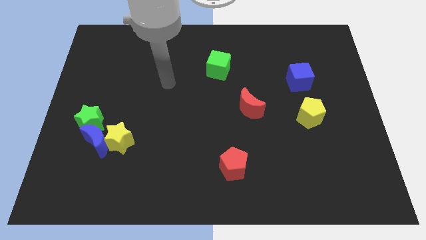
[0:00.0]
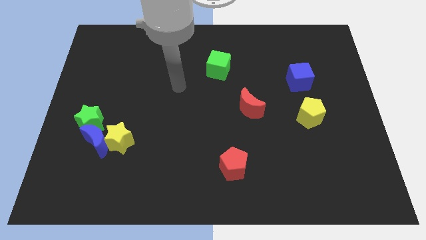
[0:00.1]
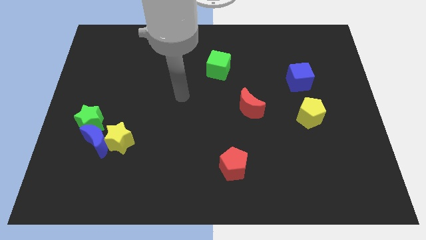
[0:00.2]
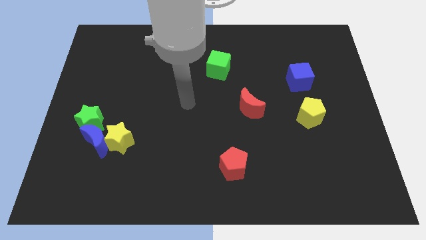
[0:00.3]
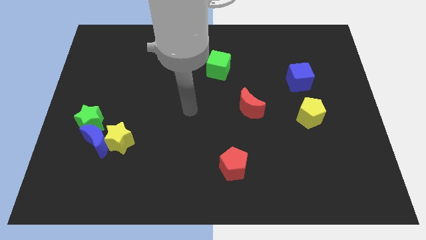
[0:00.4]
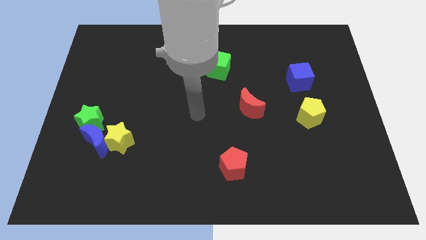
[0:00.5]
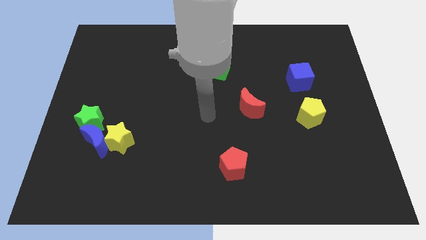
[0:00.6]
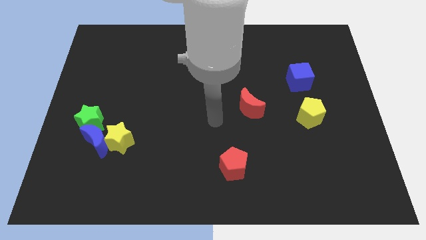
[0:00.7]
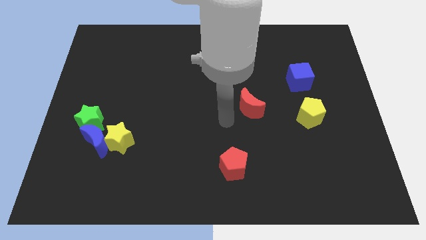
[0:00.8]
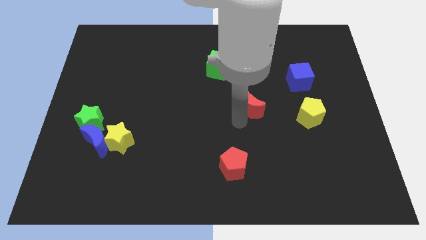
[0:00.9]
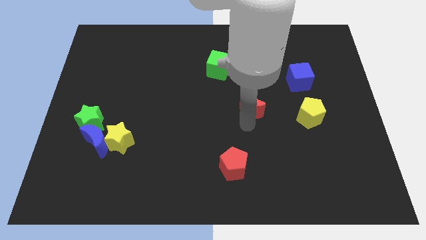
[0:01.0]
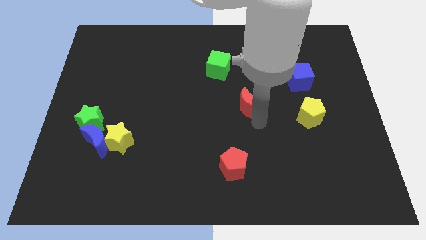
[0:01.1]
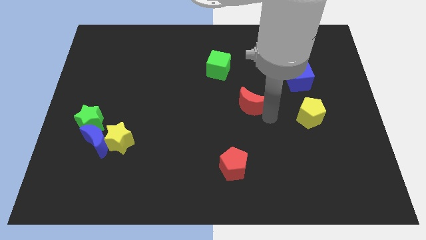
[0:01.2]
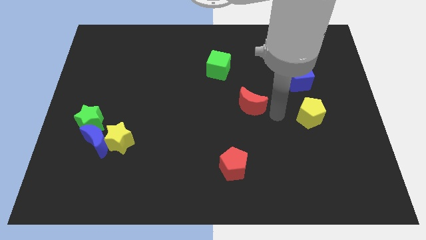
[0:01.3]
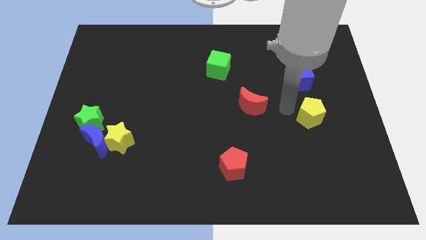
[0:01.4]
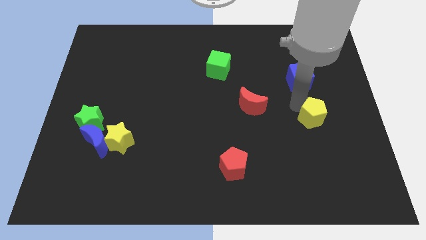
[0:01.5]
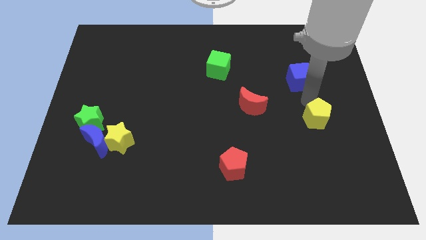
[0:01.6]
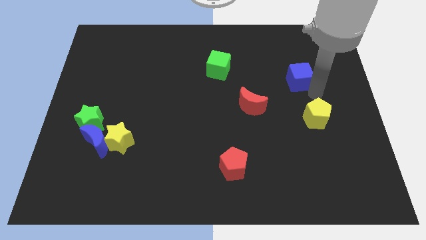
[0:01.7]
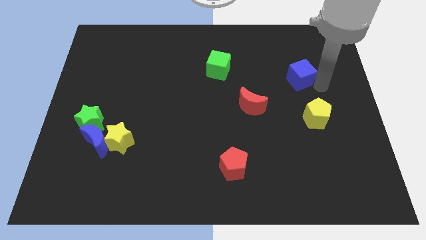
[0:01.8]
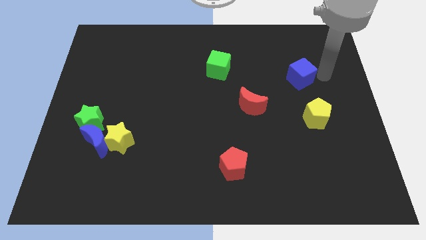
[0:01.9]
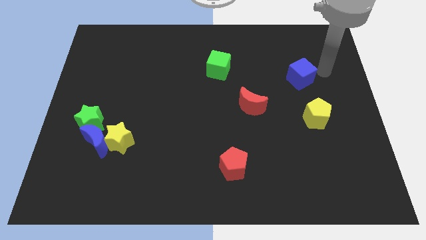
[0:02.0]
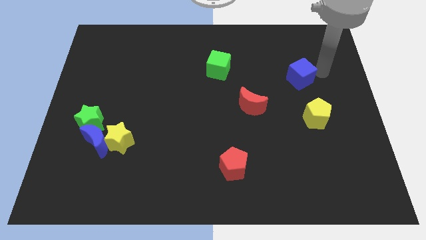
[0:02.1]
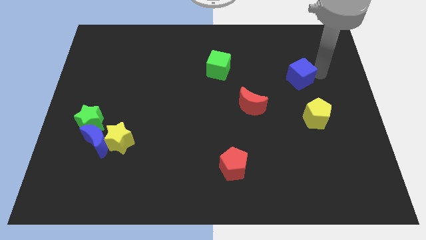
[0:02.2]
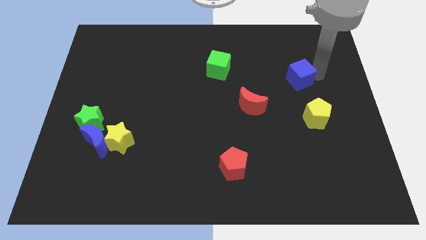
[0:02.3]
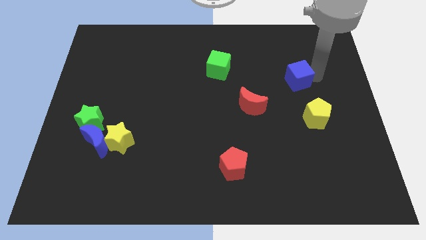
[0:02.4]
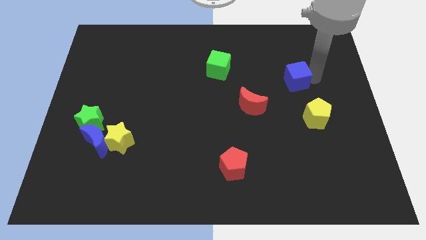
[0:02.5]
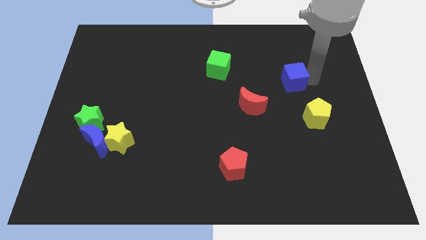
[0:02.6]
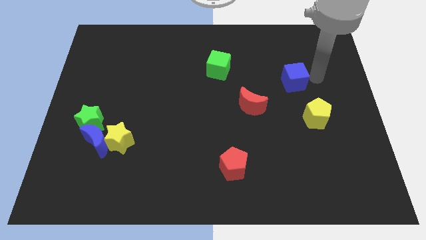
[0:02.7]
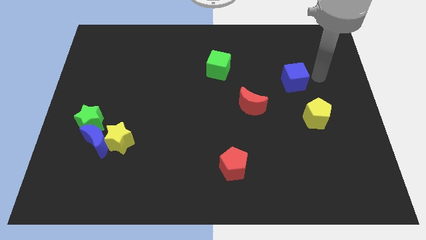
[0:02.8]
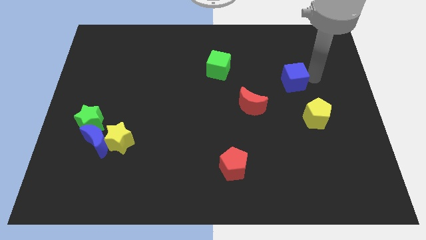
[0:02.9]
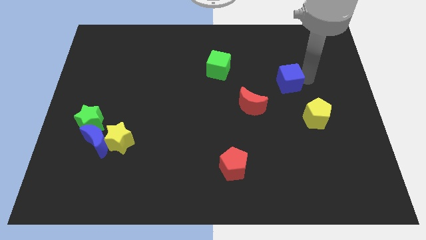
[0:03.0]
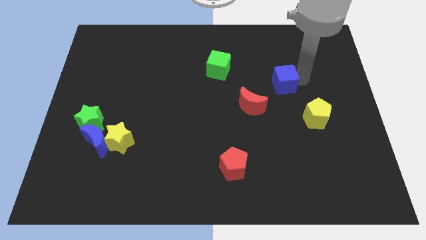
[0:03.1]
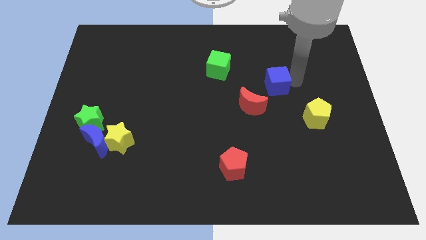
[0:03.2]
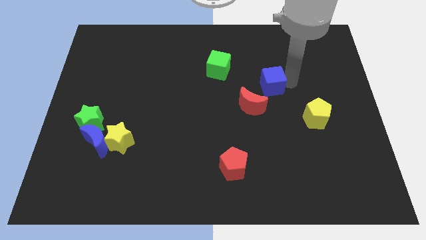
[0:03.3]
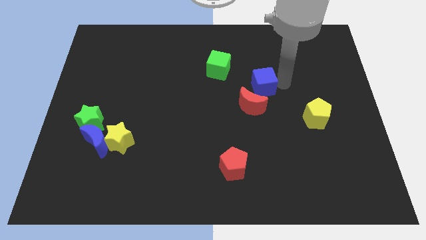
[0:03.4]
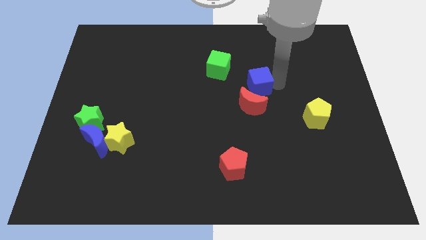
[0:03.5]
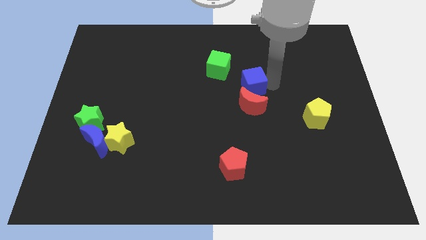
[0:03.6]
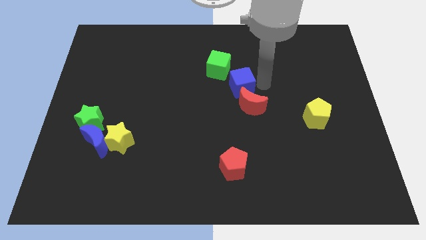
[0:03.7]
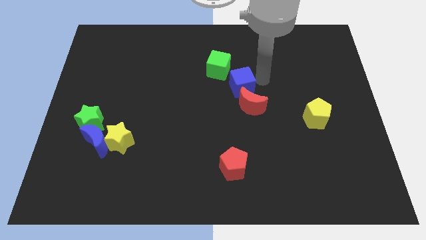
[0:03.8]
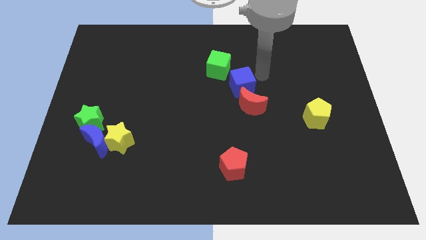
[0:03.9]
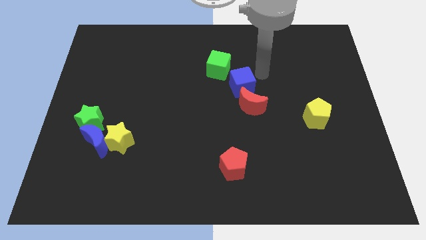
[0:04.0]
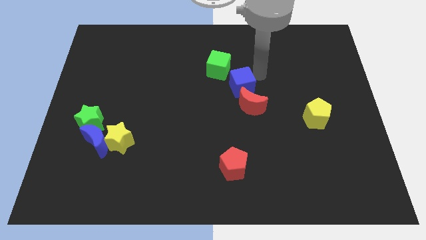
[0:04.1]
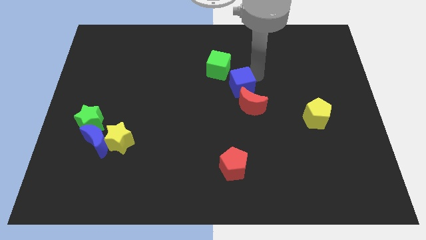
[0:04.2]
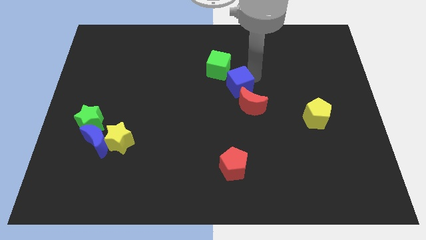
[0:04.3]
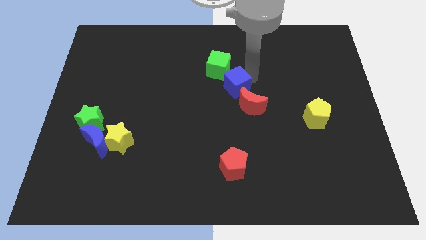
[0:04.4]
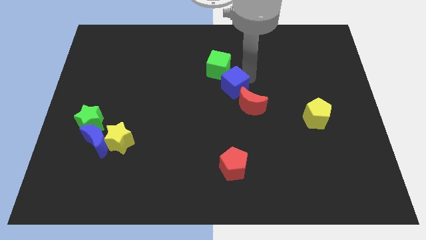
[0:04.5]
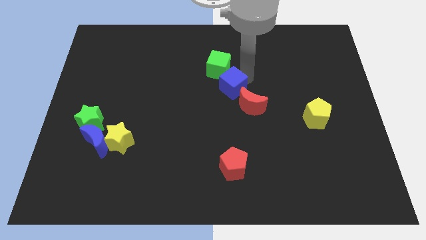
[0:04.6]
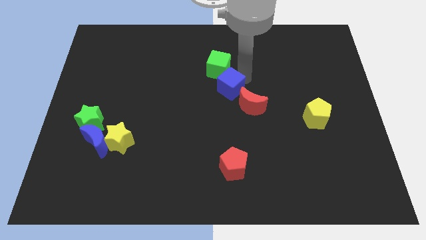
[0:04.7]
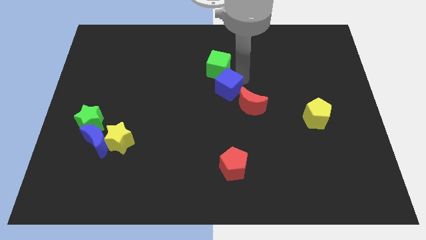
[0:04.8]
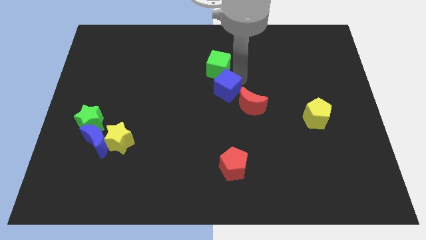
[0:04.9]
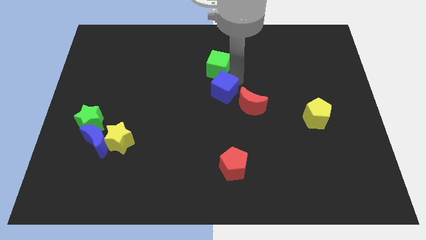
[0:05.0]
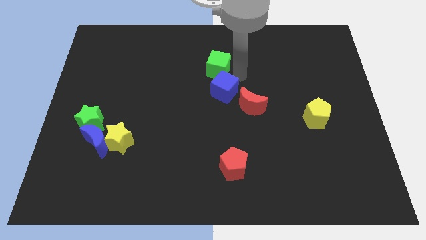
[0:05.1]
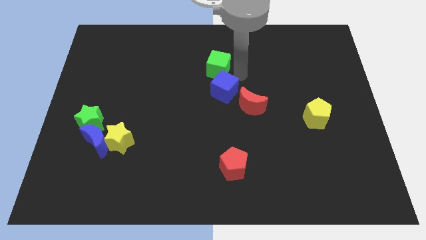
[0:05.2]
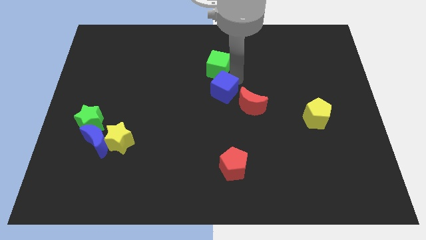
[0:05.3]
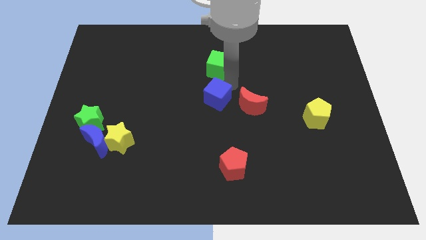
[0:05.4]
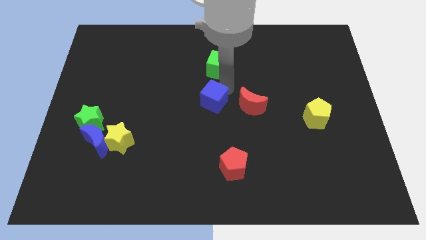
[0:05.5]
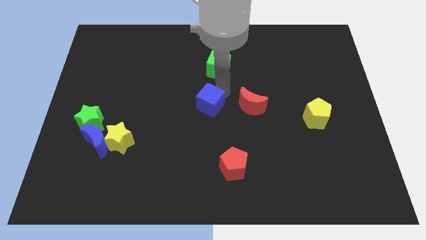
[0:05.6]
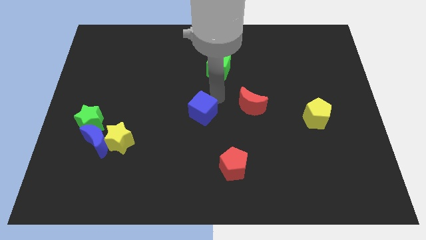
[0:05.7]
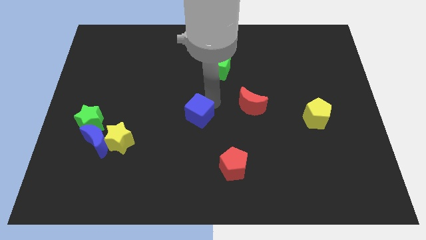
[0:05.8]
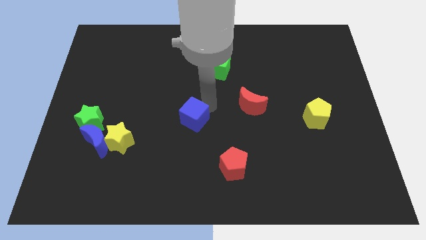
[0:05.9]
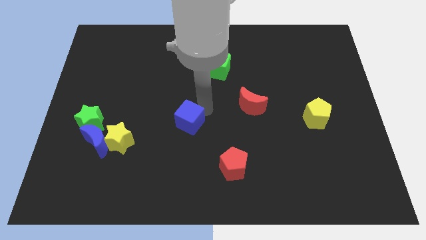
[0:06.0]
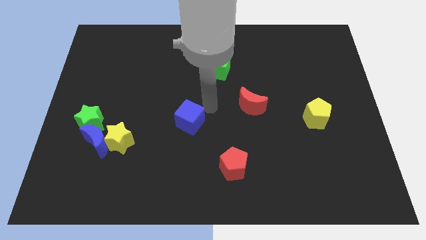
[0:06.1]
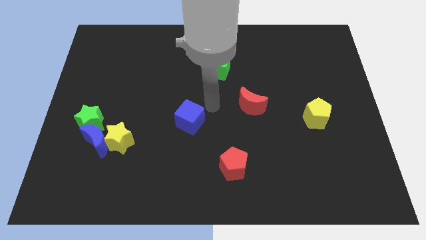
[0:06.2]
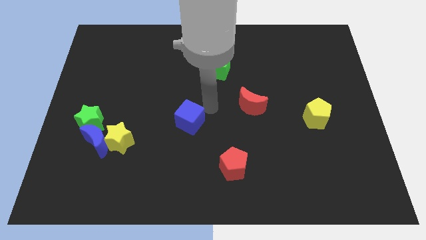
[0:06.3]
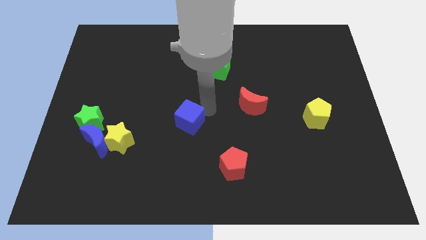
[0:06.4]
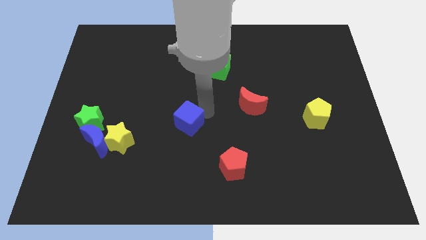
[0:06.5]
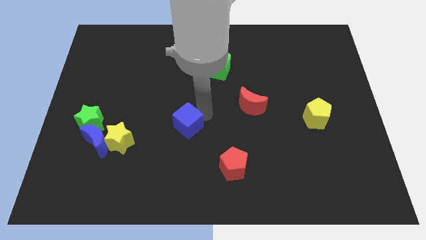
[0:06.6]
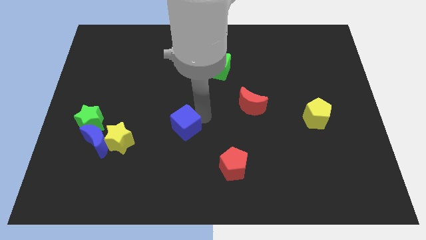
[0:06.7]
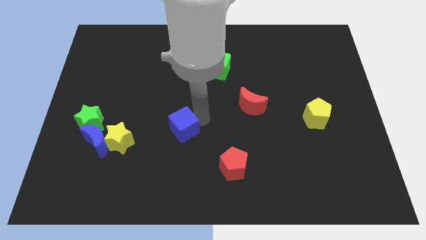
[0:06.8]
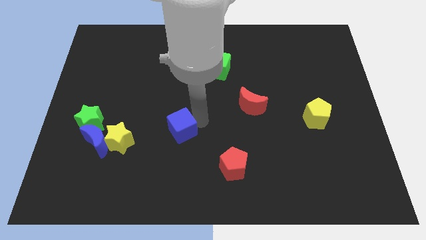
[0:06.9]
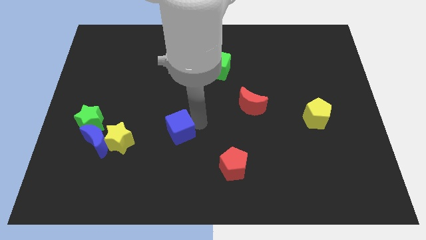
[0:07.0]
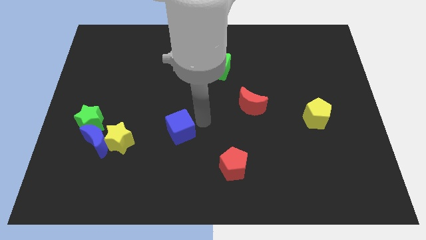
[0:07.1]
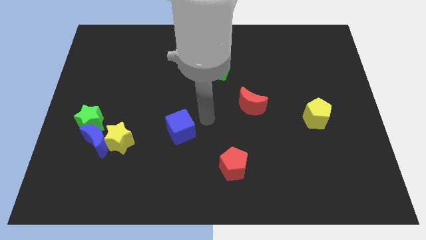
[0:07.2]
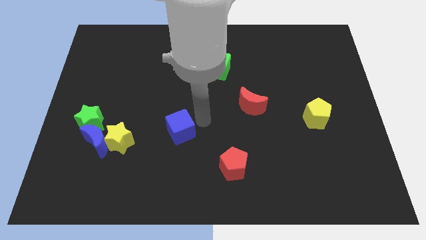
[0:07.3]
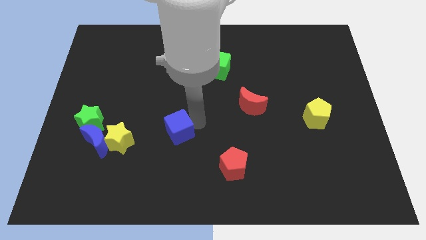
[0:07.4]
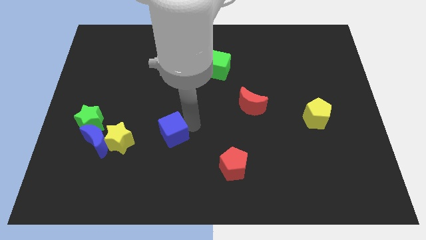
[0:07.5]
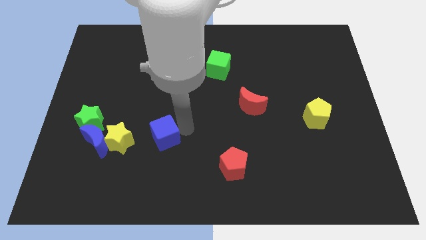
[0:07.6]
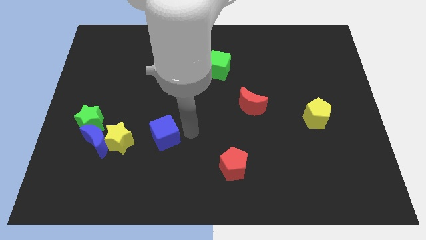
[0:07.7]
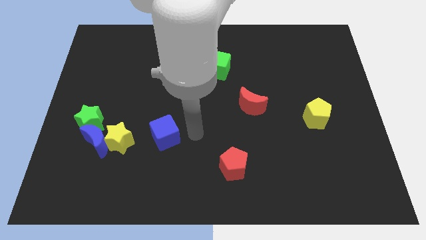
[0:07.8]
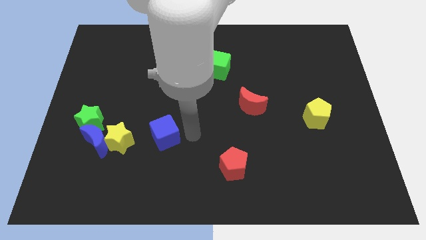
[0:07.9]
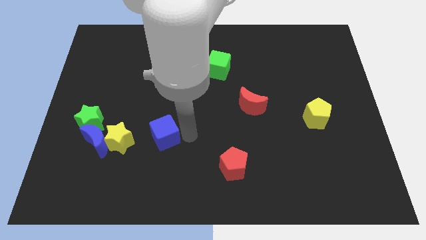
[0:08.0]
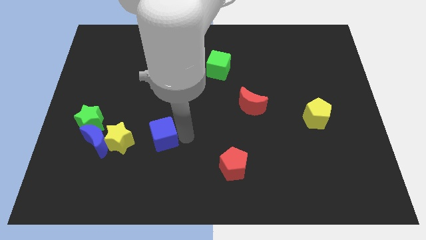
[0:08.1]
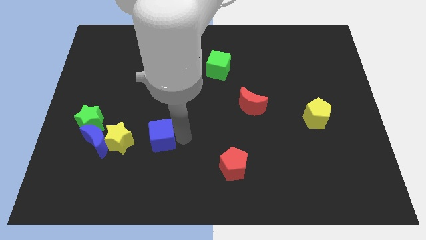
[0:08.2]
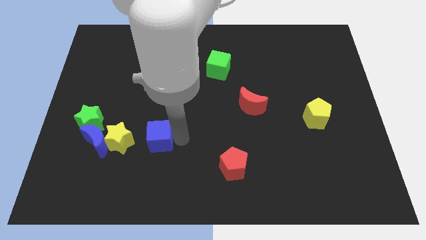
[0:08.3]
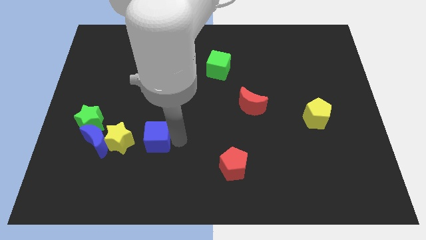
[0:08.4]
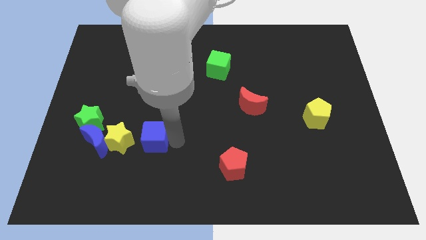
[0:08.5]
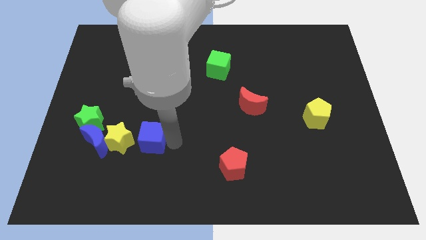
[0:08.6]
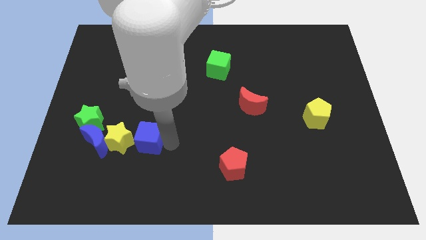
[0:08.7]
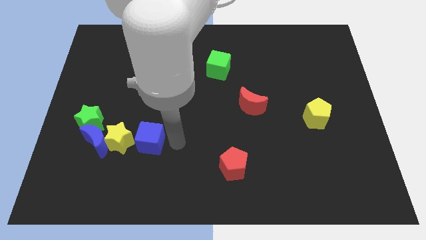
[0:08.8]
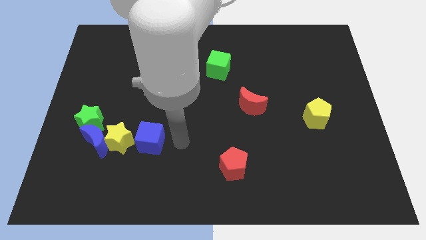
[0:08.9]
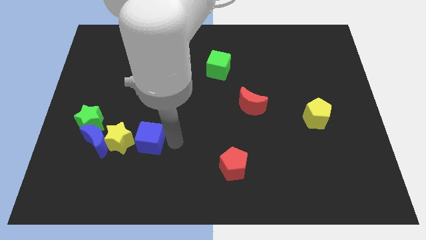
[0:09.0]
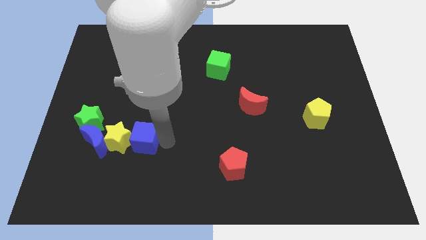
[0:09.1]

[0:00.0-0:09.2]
move the blue cube next to the yellow star
